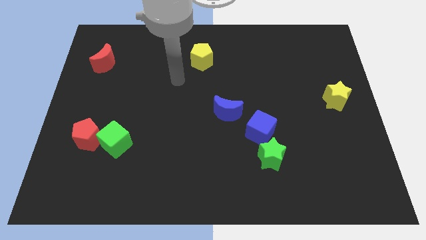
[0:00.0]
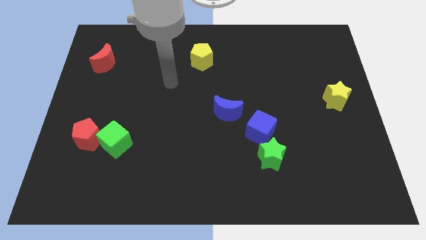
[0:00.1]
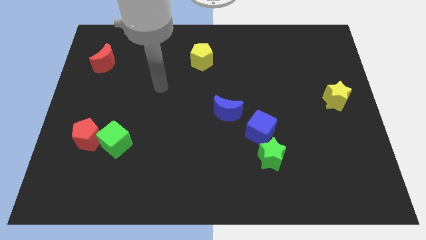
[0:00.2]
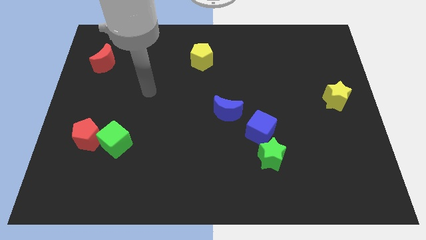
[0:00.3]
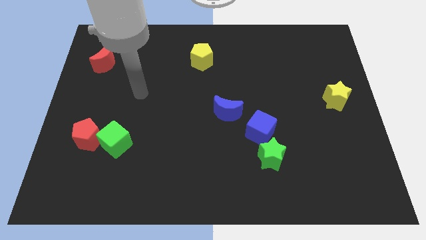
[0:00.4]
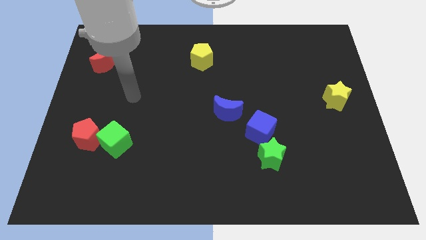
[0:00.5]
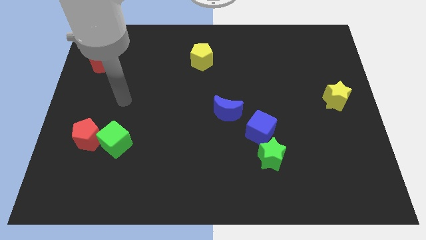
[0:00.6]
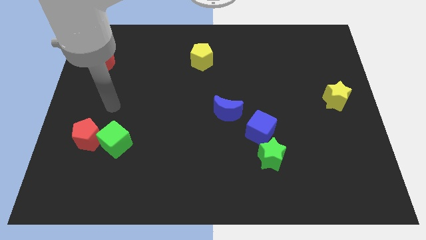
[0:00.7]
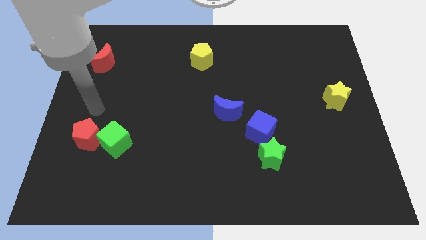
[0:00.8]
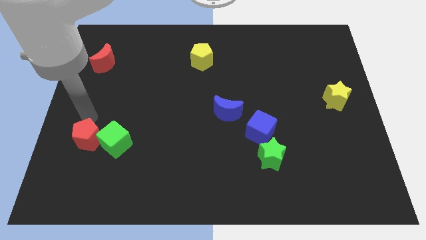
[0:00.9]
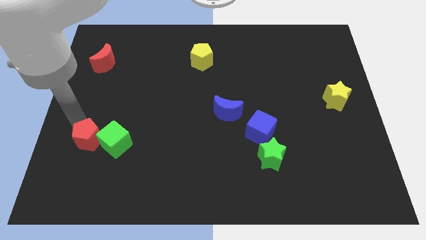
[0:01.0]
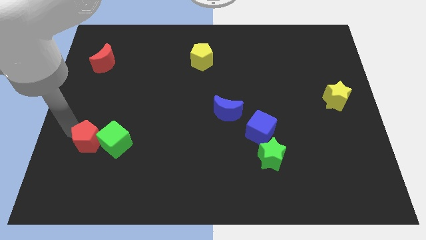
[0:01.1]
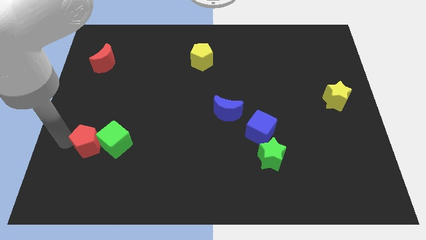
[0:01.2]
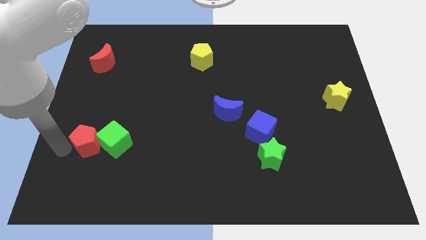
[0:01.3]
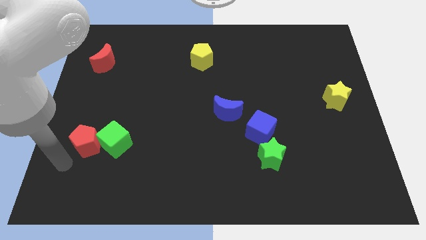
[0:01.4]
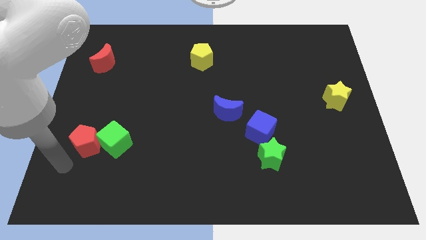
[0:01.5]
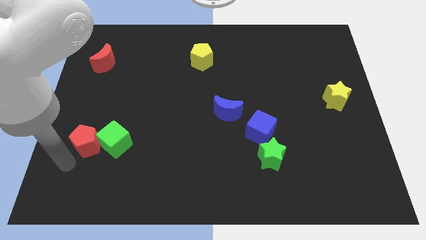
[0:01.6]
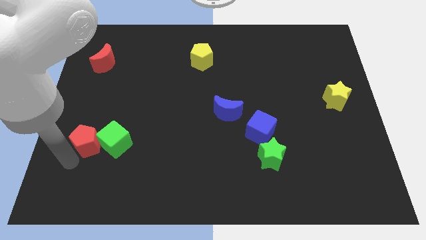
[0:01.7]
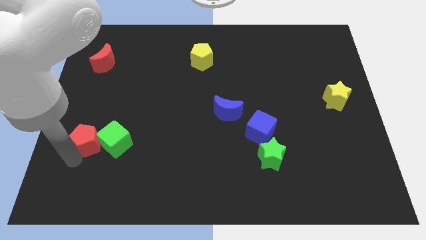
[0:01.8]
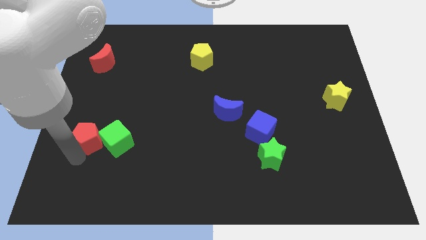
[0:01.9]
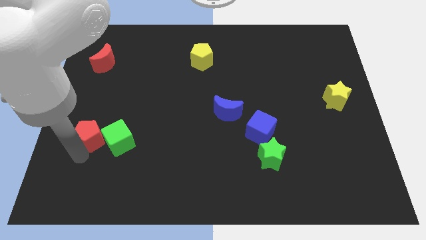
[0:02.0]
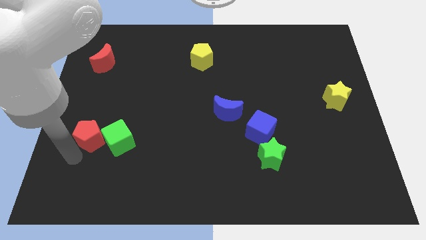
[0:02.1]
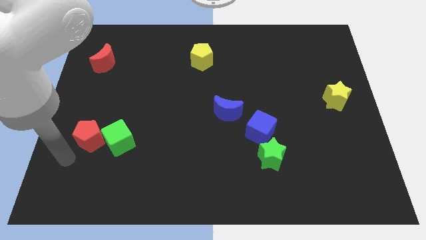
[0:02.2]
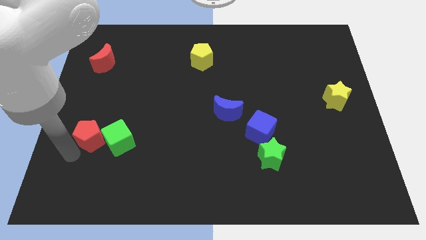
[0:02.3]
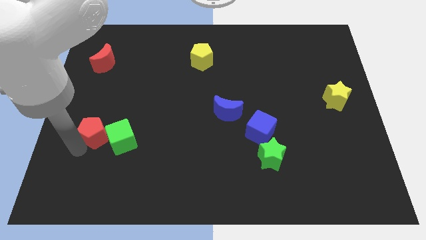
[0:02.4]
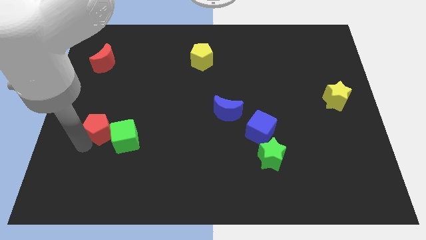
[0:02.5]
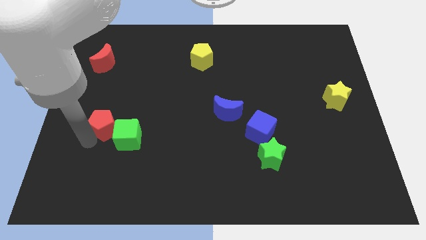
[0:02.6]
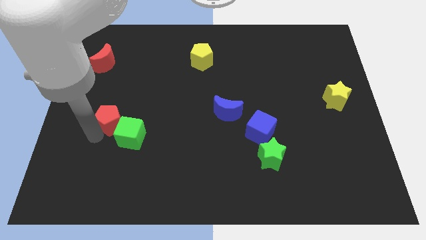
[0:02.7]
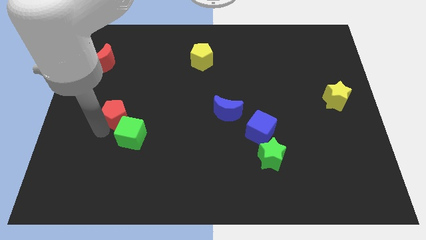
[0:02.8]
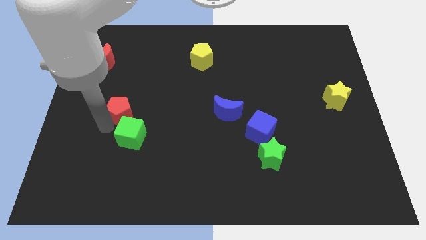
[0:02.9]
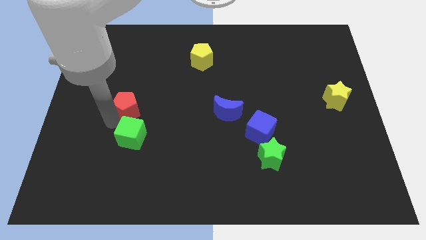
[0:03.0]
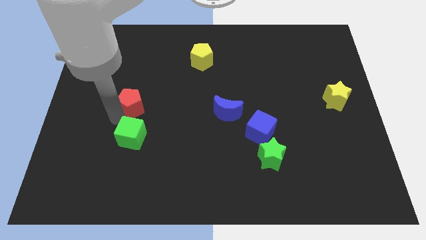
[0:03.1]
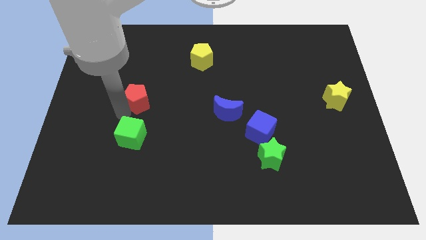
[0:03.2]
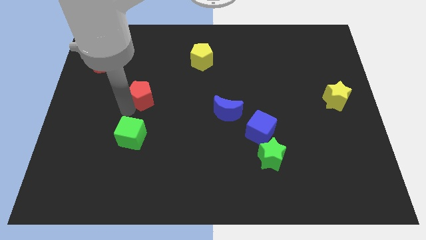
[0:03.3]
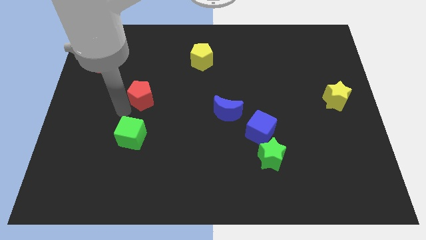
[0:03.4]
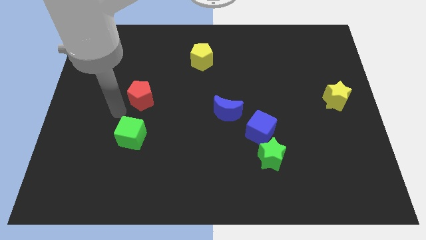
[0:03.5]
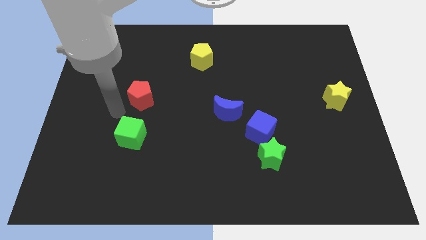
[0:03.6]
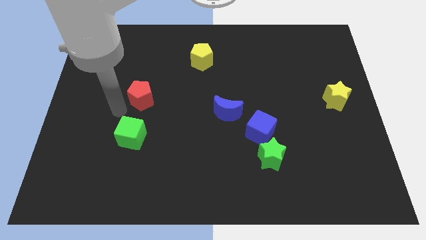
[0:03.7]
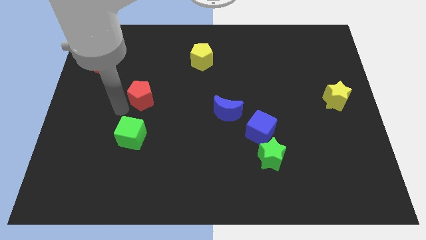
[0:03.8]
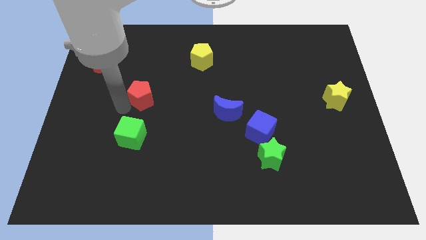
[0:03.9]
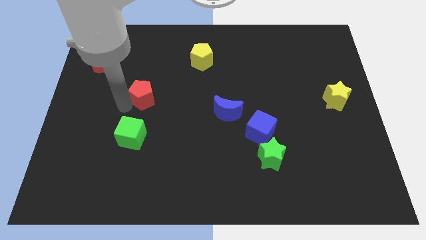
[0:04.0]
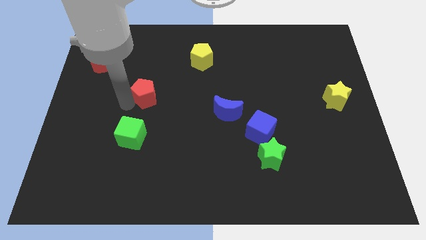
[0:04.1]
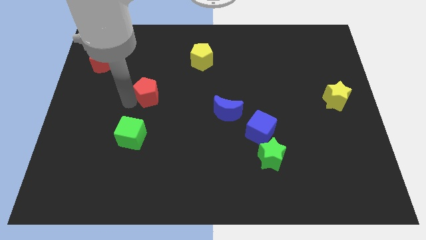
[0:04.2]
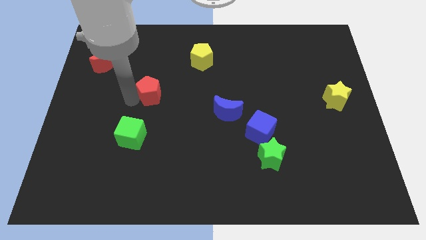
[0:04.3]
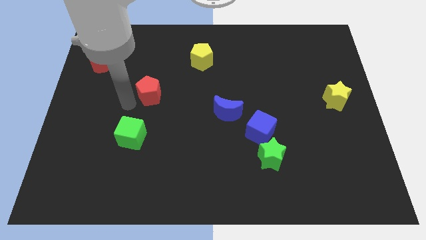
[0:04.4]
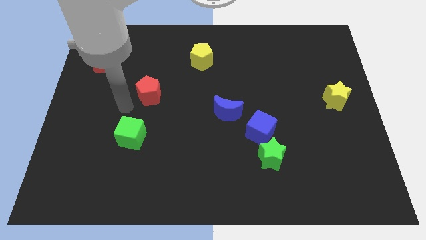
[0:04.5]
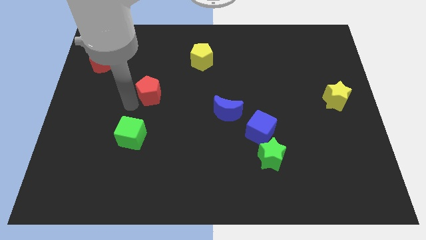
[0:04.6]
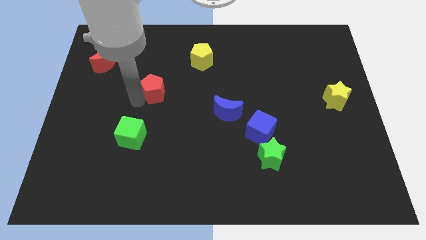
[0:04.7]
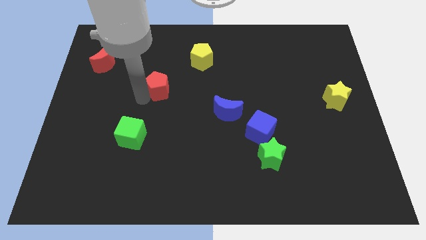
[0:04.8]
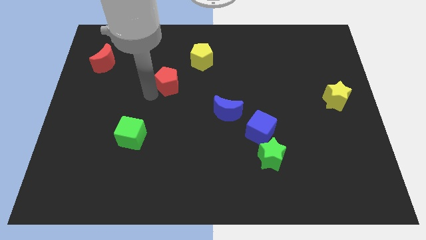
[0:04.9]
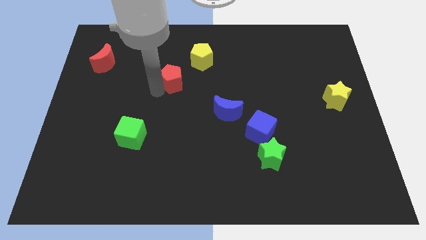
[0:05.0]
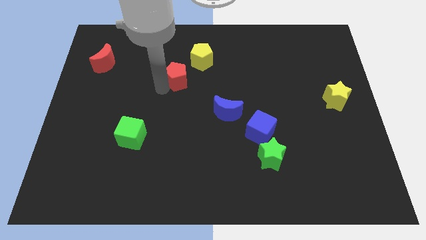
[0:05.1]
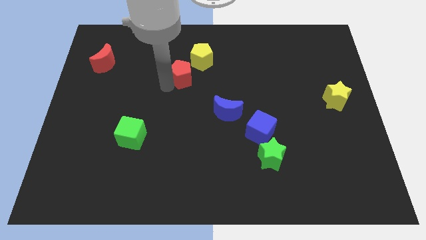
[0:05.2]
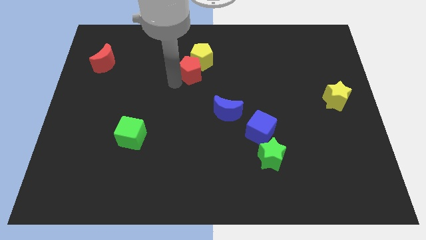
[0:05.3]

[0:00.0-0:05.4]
slide the red pentagon close to the yellow pentagon

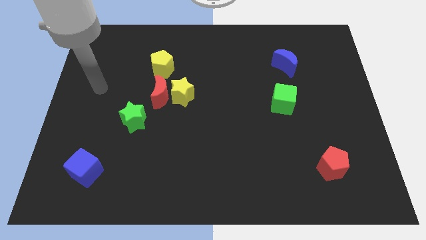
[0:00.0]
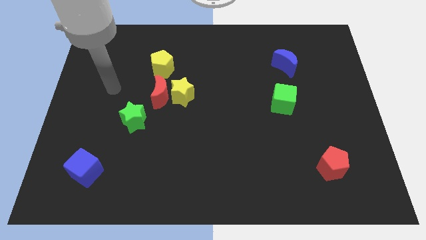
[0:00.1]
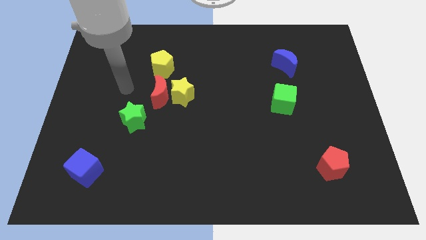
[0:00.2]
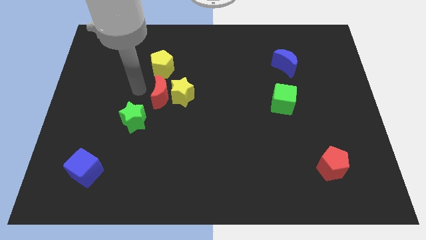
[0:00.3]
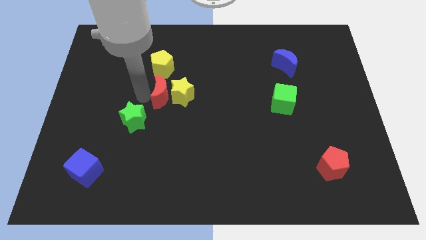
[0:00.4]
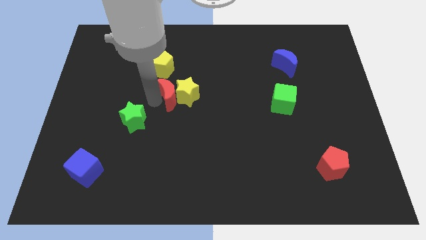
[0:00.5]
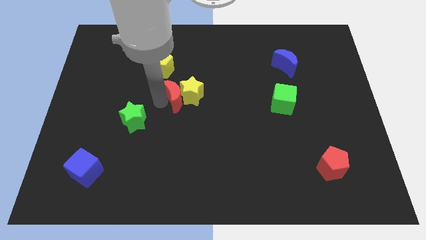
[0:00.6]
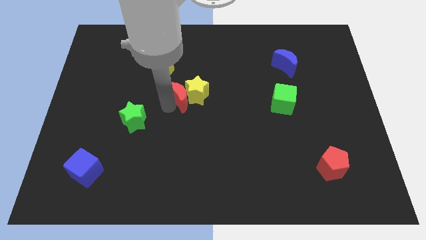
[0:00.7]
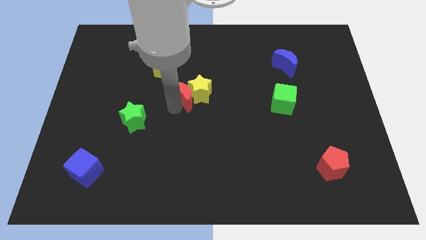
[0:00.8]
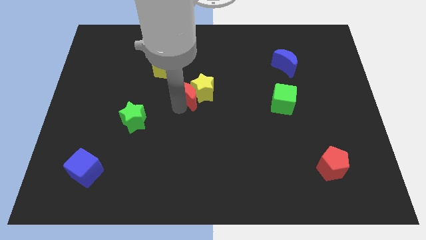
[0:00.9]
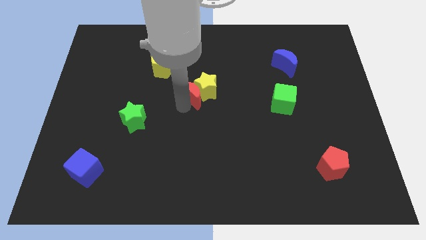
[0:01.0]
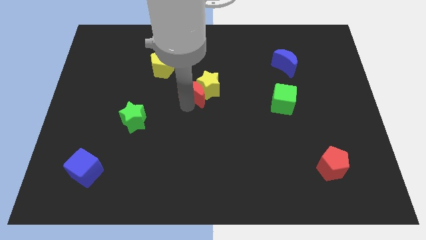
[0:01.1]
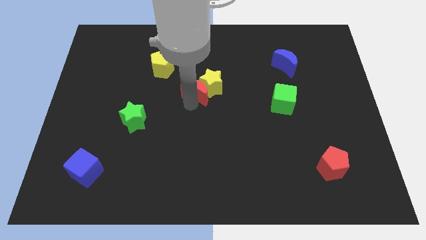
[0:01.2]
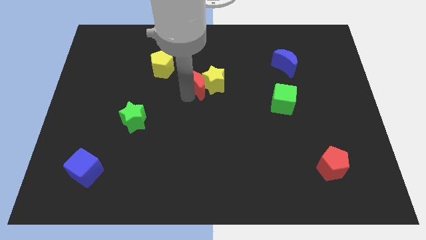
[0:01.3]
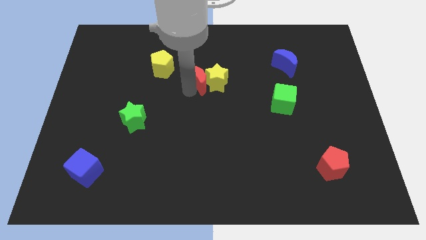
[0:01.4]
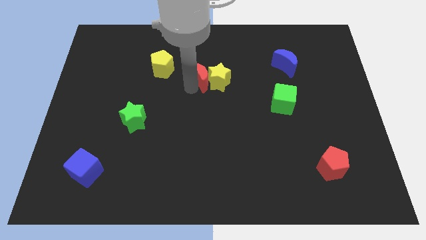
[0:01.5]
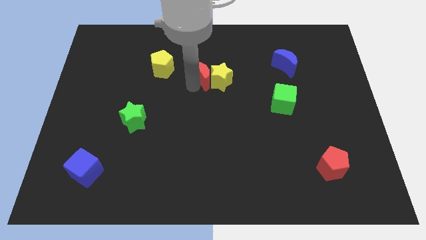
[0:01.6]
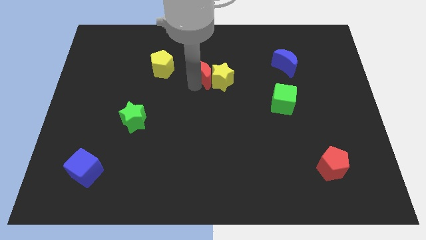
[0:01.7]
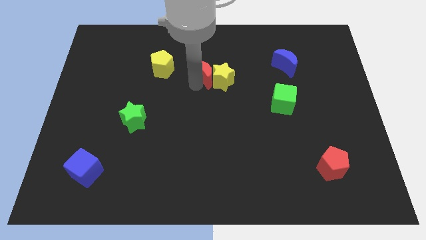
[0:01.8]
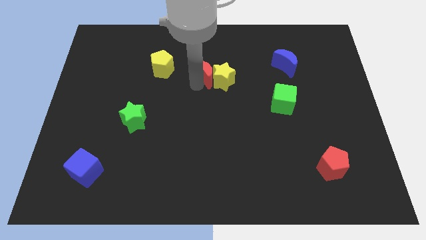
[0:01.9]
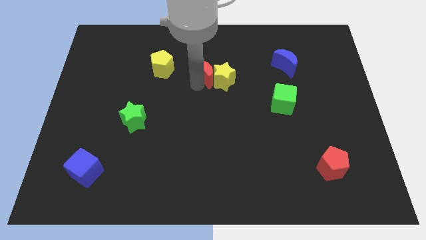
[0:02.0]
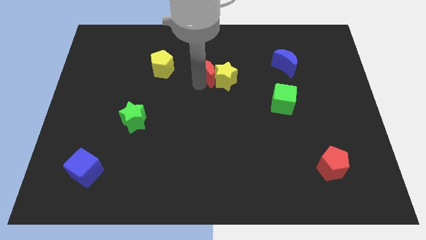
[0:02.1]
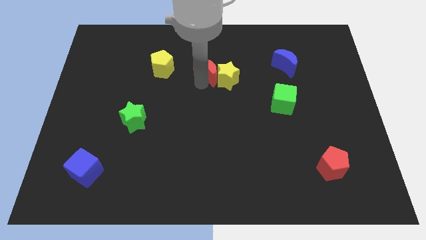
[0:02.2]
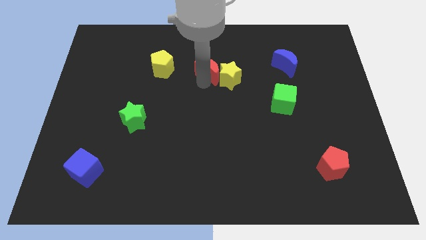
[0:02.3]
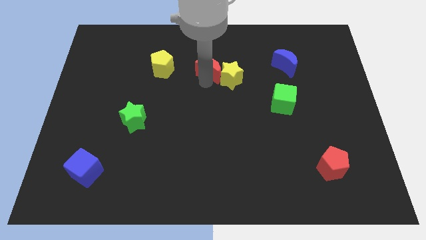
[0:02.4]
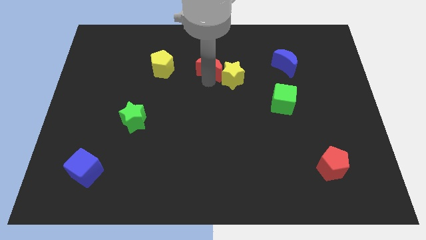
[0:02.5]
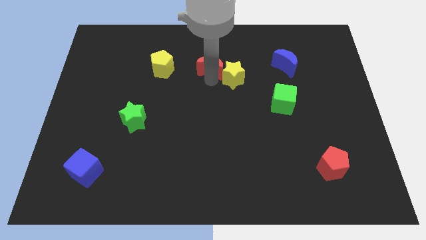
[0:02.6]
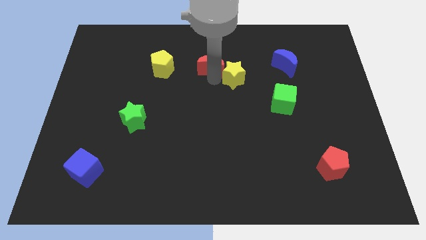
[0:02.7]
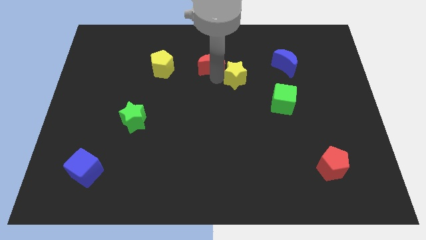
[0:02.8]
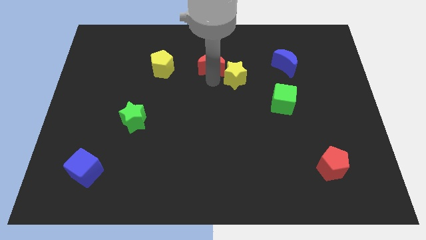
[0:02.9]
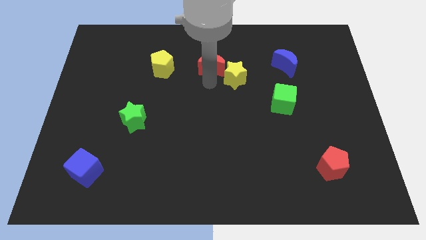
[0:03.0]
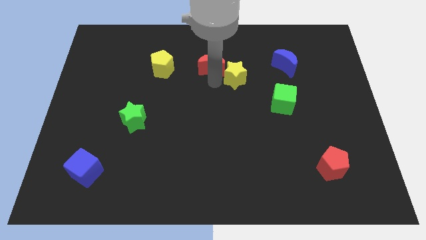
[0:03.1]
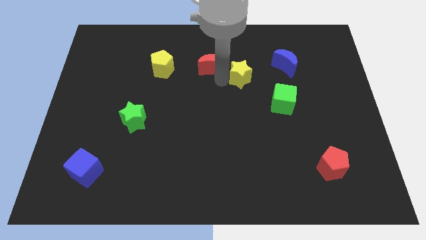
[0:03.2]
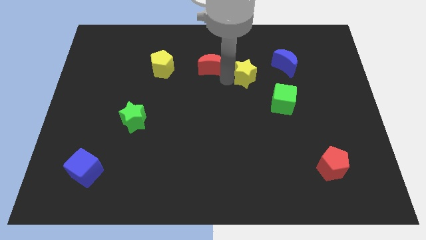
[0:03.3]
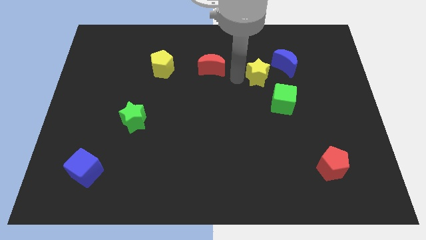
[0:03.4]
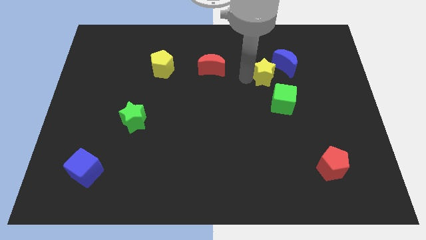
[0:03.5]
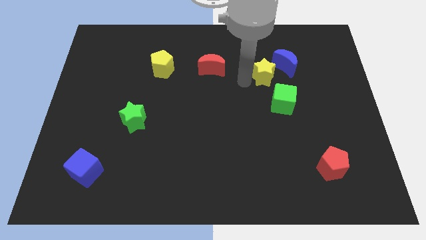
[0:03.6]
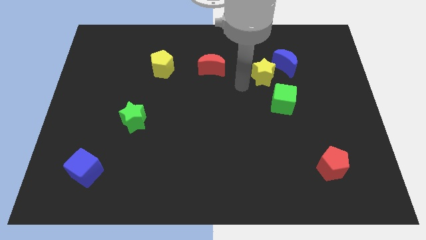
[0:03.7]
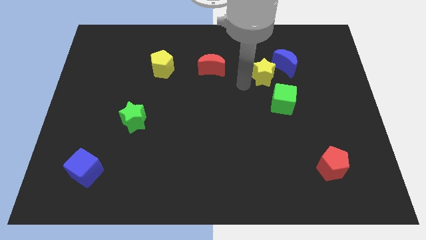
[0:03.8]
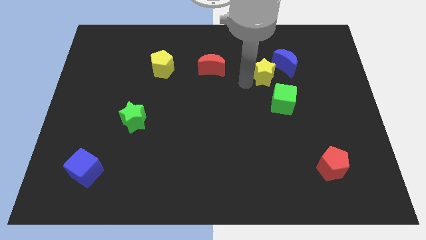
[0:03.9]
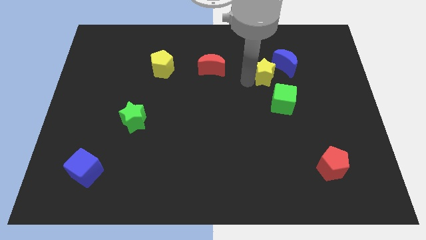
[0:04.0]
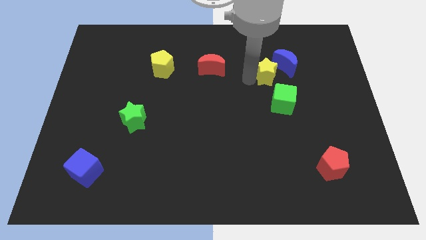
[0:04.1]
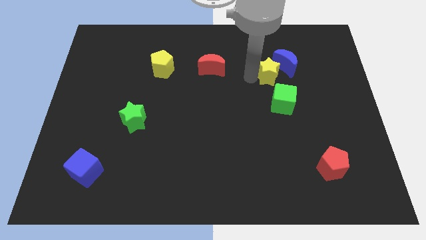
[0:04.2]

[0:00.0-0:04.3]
slide the yellow star close to the blue moon
